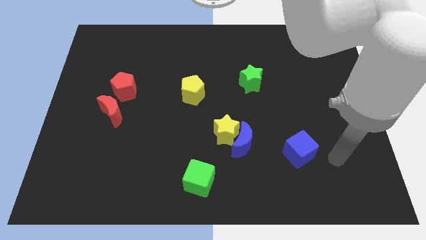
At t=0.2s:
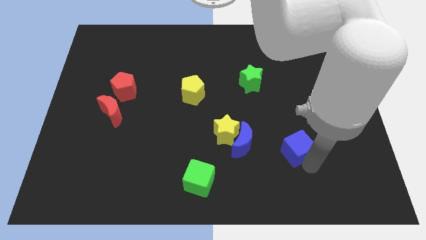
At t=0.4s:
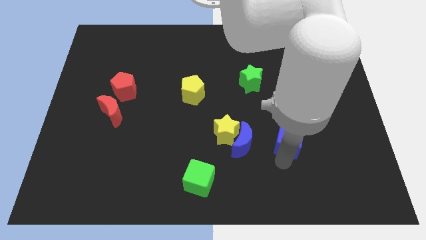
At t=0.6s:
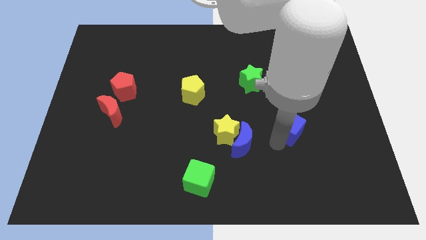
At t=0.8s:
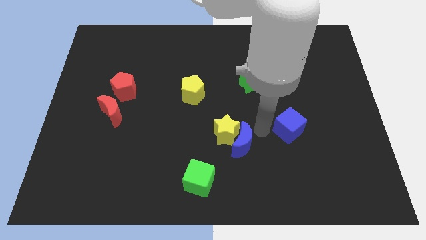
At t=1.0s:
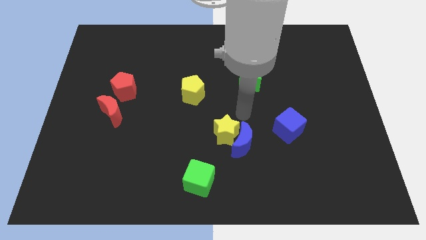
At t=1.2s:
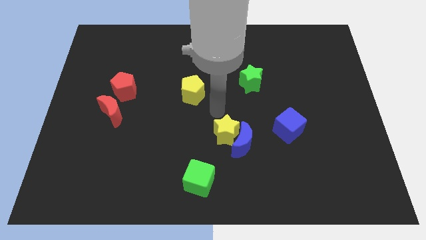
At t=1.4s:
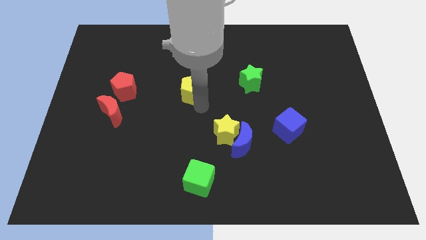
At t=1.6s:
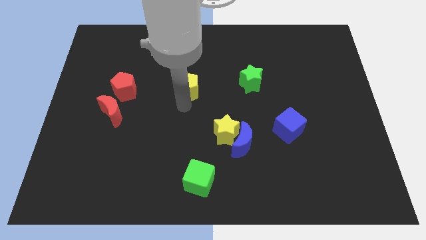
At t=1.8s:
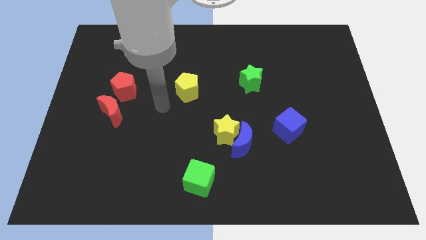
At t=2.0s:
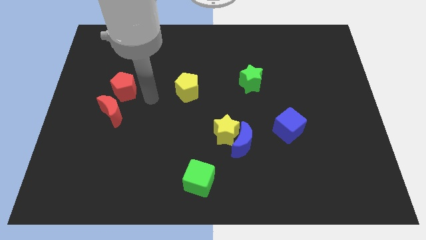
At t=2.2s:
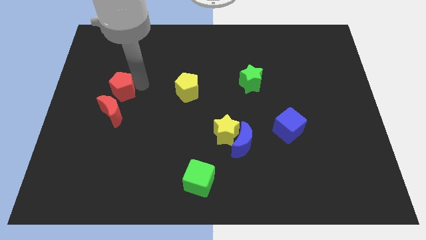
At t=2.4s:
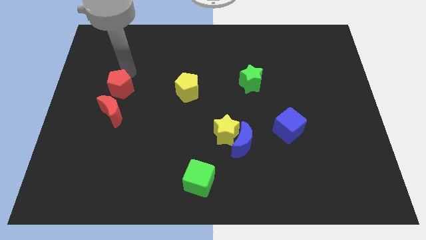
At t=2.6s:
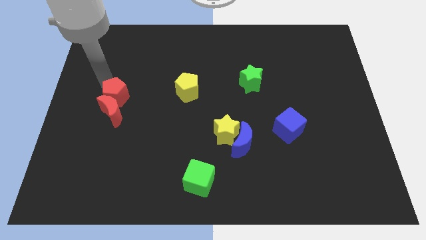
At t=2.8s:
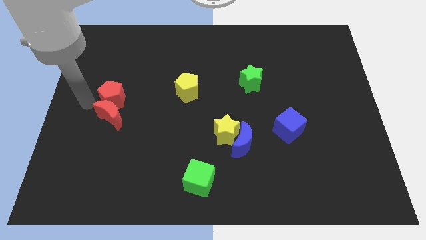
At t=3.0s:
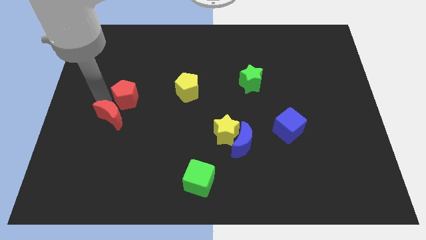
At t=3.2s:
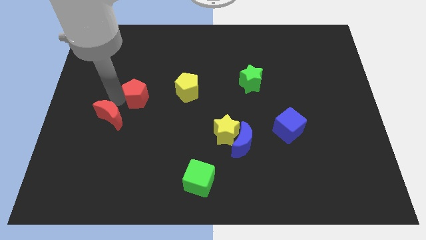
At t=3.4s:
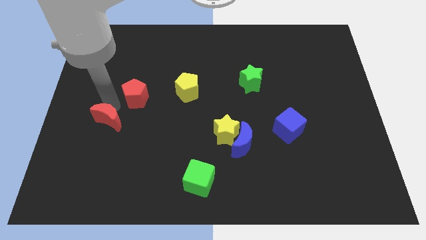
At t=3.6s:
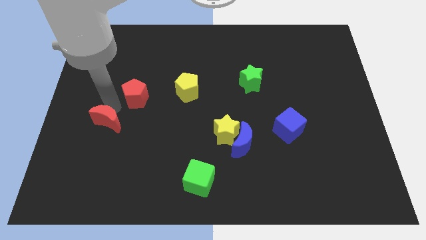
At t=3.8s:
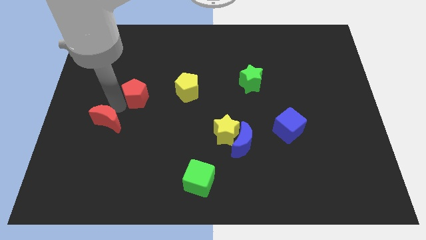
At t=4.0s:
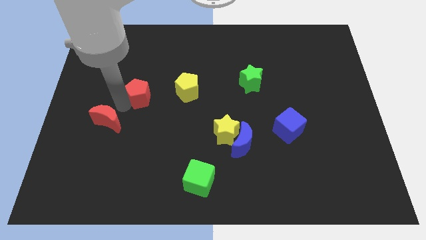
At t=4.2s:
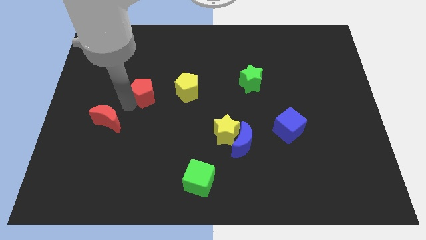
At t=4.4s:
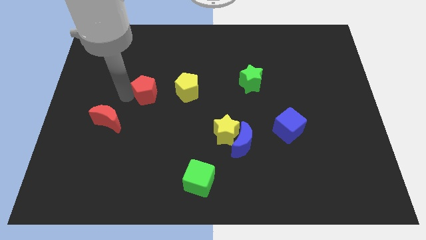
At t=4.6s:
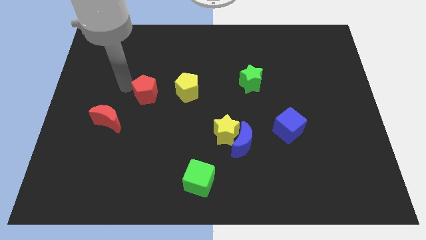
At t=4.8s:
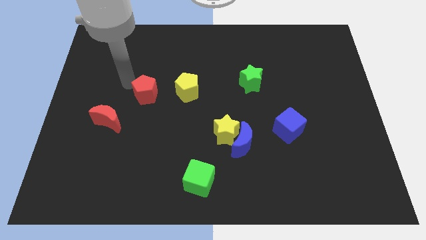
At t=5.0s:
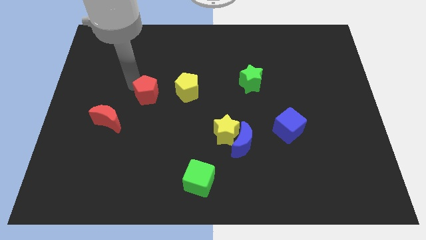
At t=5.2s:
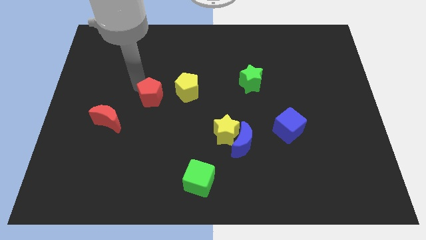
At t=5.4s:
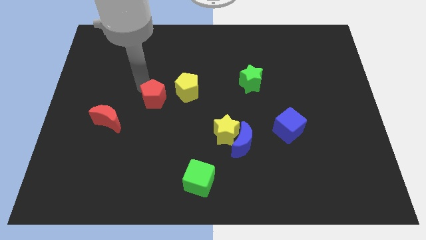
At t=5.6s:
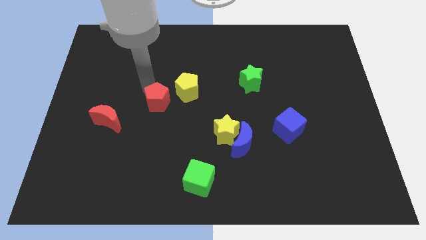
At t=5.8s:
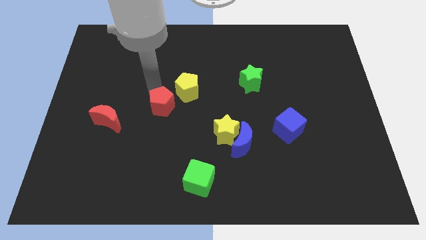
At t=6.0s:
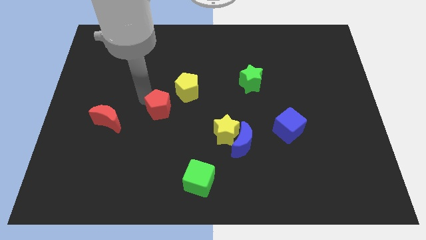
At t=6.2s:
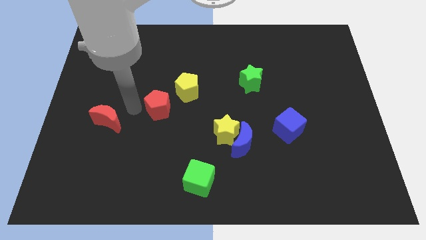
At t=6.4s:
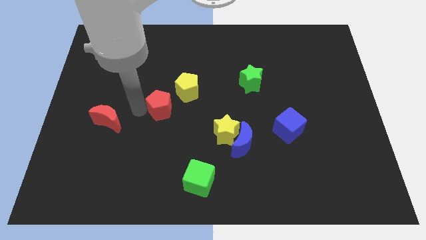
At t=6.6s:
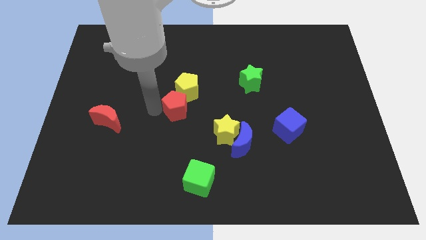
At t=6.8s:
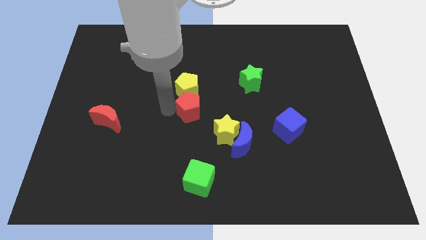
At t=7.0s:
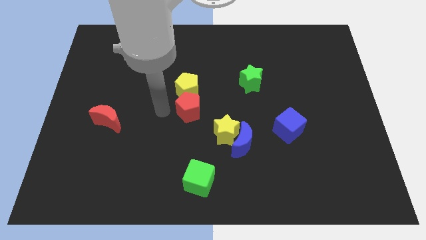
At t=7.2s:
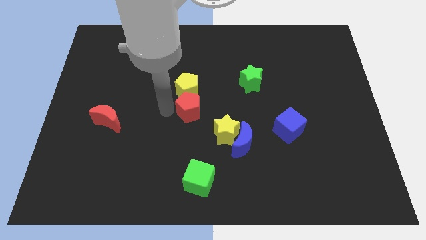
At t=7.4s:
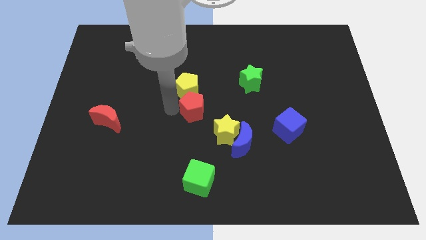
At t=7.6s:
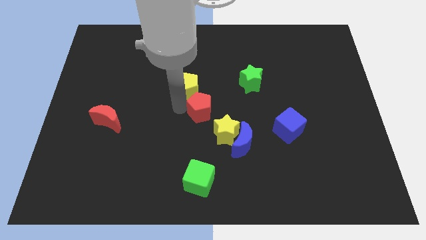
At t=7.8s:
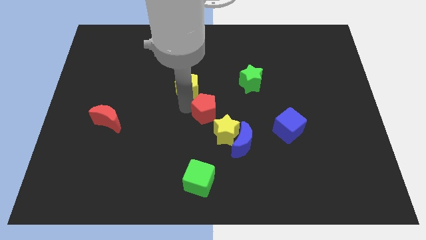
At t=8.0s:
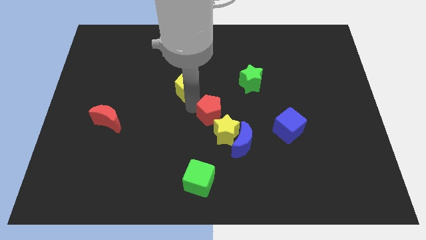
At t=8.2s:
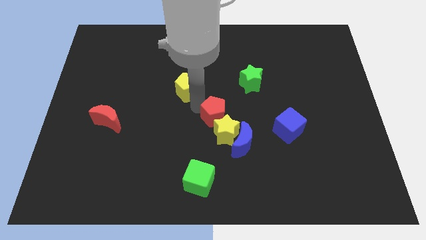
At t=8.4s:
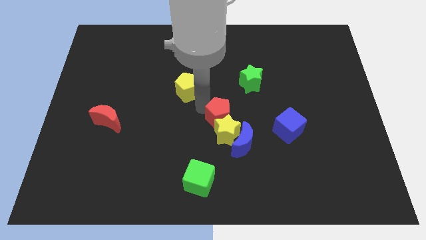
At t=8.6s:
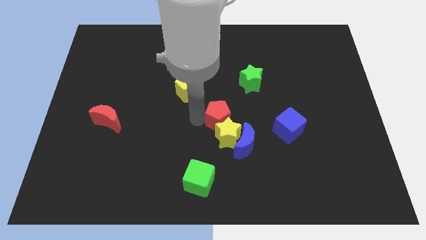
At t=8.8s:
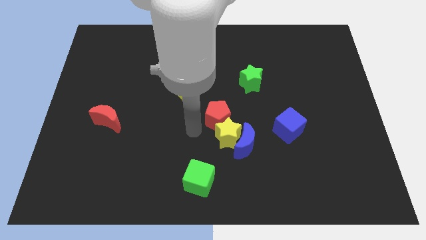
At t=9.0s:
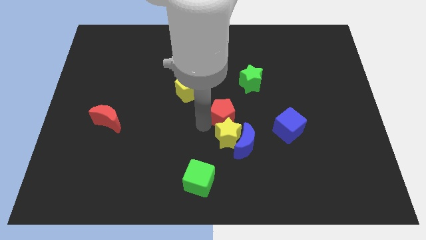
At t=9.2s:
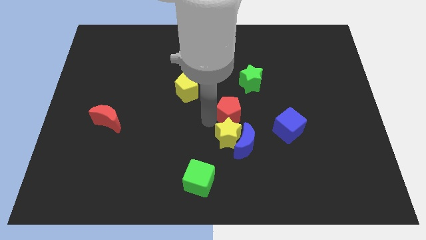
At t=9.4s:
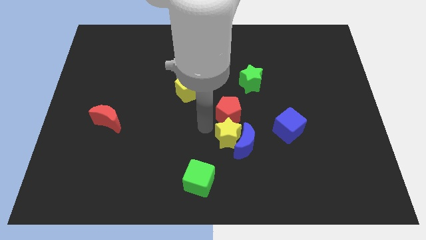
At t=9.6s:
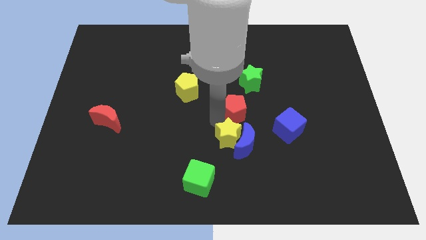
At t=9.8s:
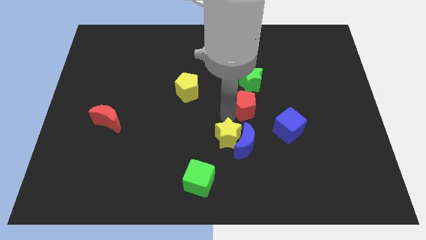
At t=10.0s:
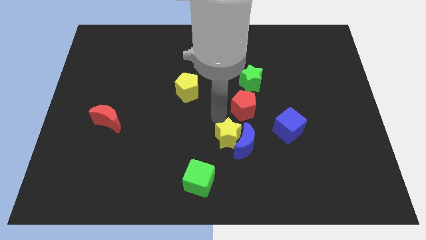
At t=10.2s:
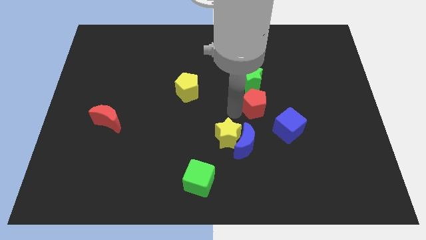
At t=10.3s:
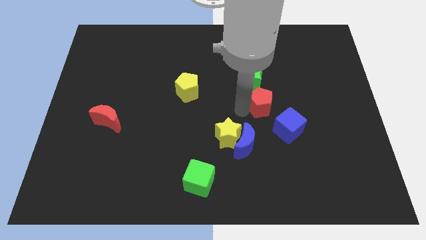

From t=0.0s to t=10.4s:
put the red pentagon to the bottom right side of the green star

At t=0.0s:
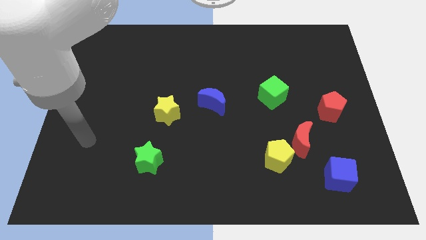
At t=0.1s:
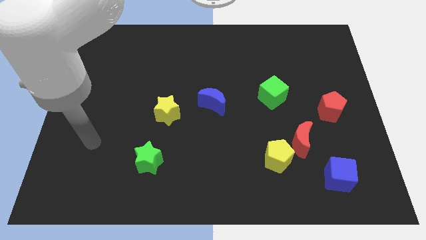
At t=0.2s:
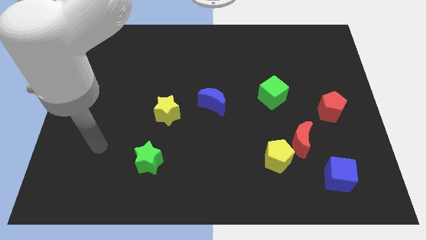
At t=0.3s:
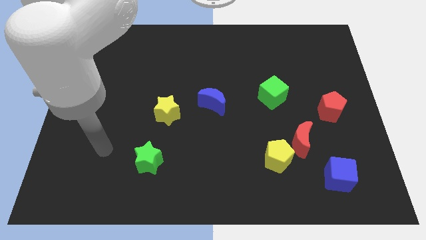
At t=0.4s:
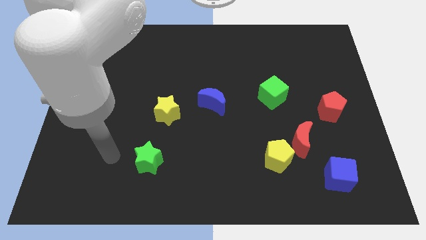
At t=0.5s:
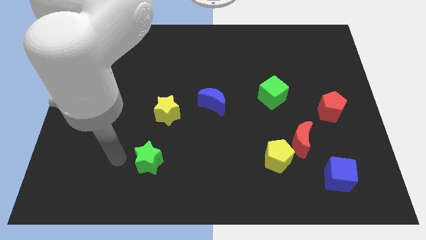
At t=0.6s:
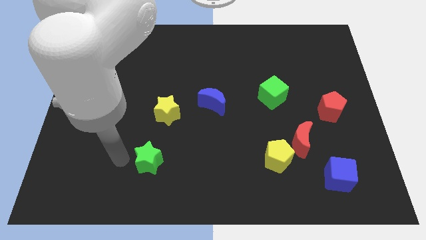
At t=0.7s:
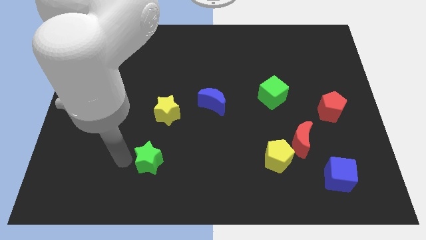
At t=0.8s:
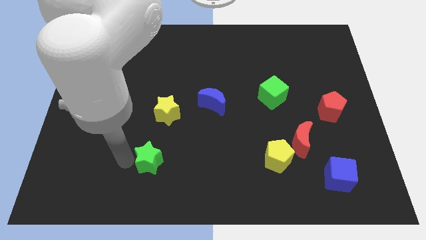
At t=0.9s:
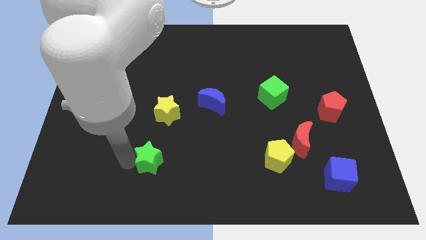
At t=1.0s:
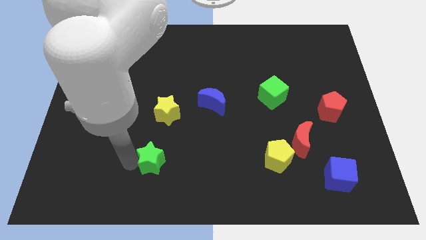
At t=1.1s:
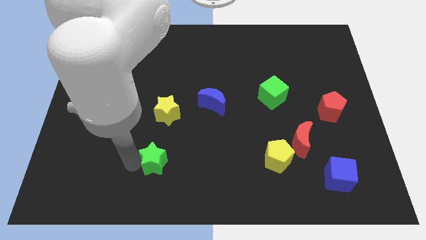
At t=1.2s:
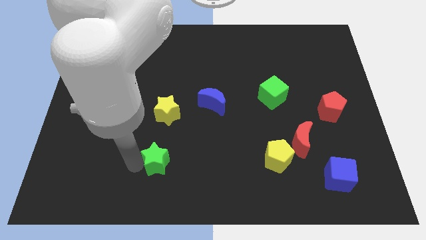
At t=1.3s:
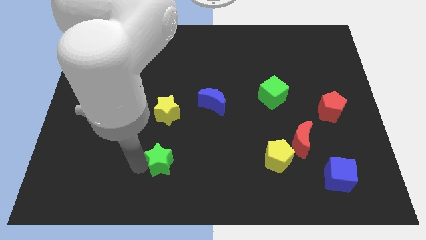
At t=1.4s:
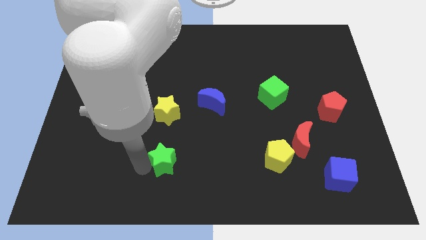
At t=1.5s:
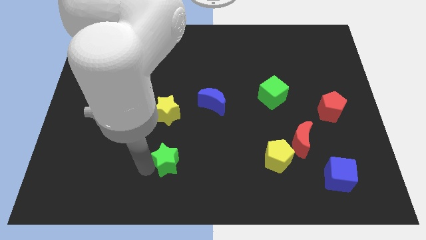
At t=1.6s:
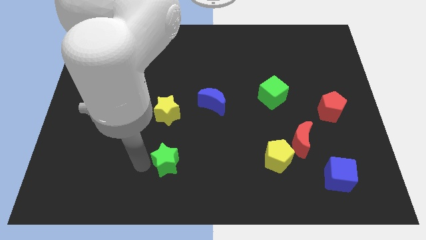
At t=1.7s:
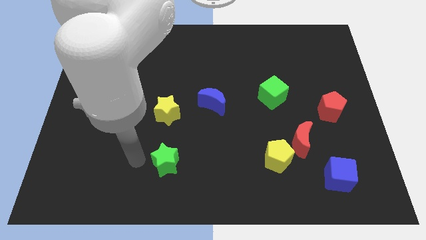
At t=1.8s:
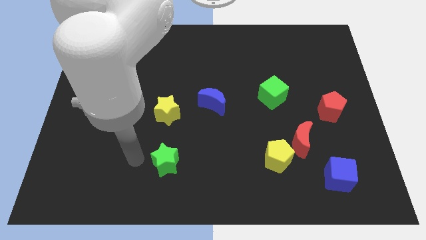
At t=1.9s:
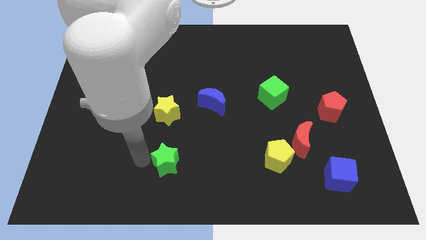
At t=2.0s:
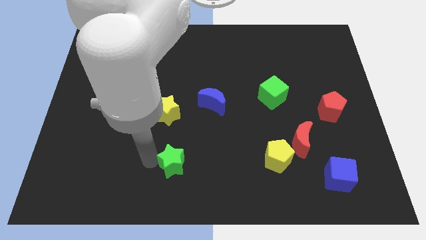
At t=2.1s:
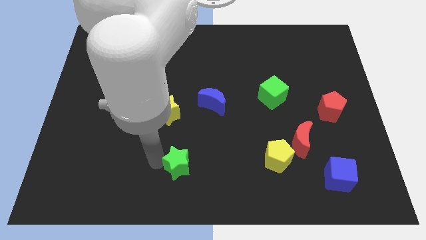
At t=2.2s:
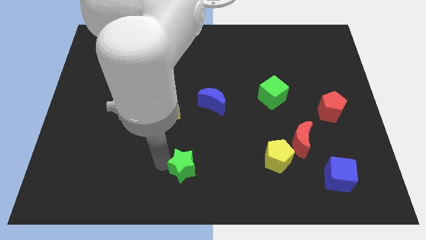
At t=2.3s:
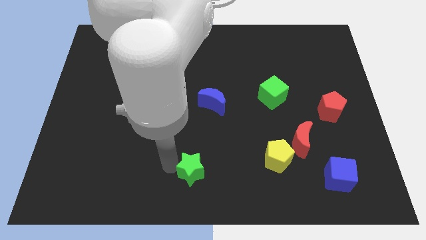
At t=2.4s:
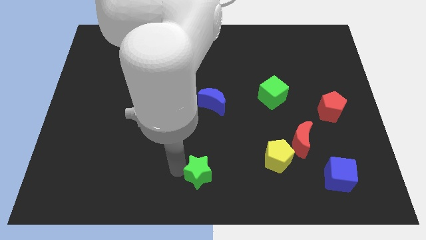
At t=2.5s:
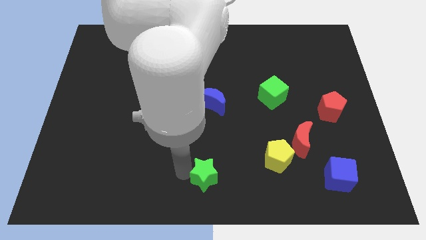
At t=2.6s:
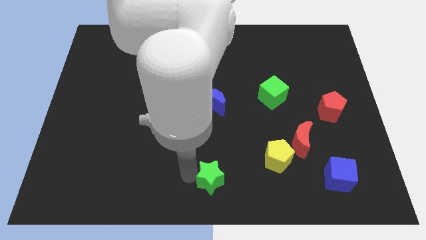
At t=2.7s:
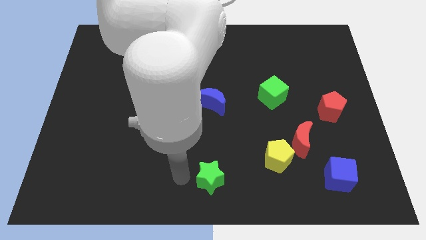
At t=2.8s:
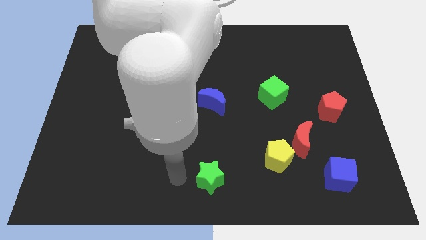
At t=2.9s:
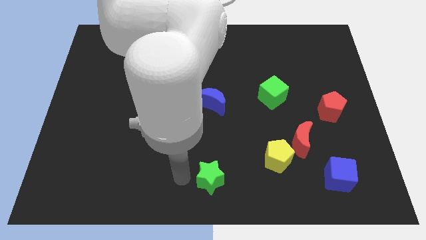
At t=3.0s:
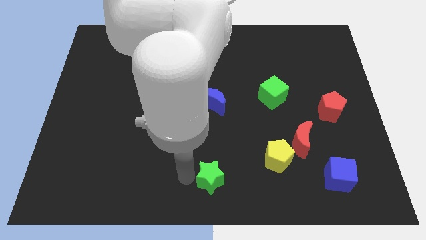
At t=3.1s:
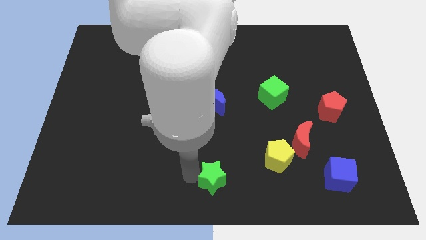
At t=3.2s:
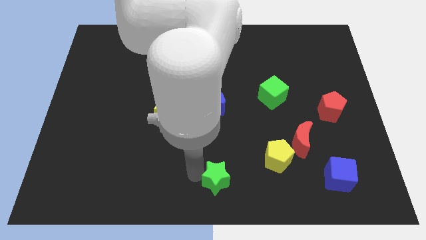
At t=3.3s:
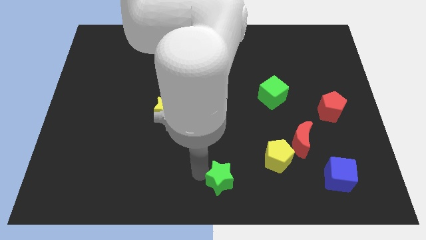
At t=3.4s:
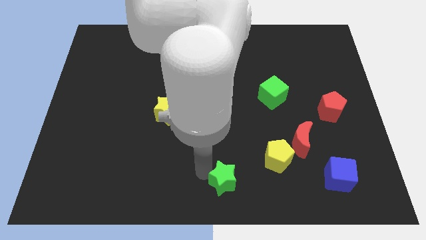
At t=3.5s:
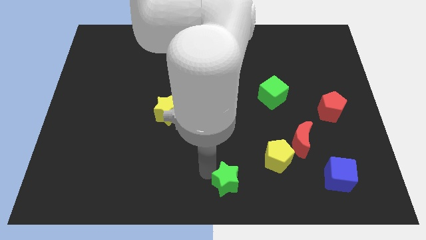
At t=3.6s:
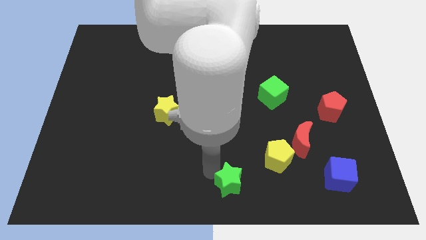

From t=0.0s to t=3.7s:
push the green star to the bottom left side of the yellow pentagon
